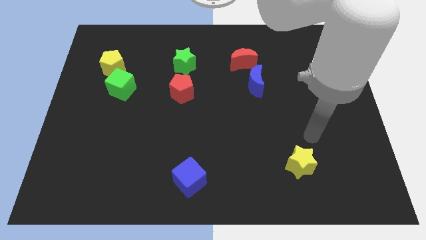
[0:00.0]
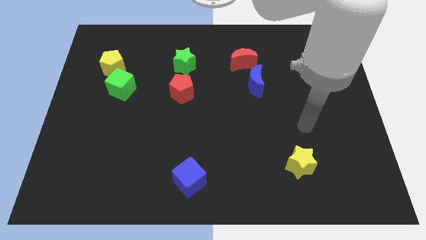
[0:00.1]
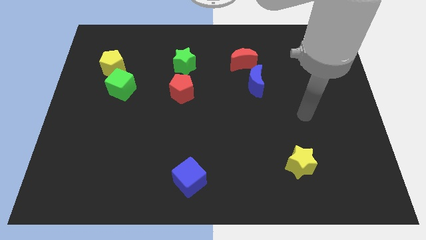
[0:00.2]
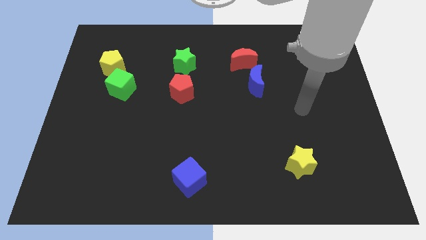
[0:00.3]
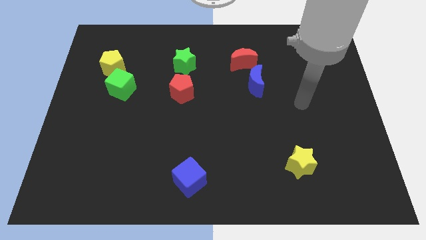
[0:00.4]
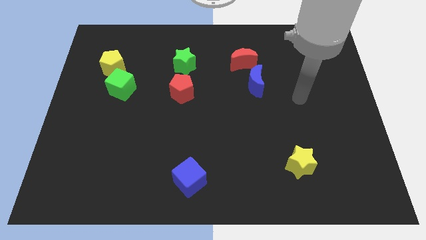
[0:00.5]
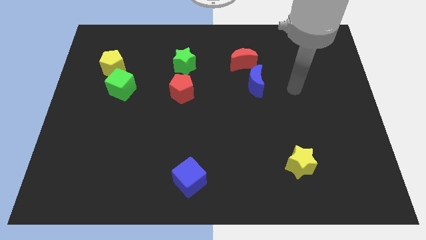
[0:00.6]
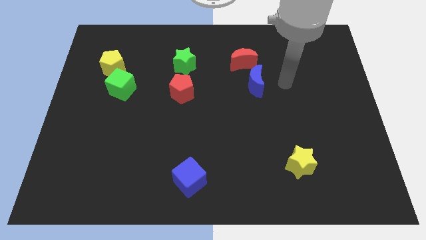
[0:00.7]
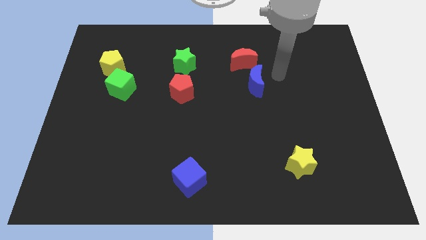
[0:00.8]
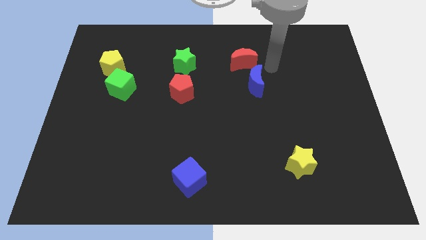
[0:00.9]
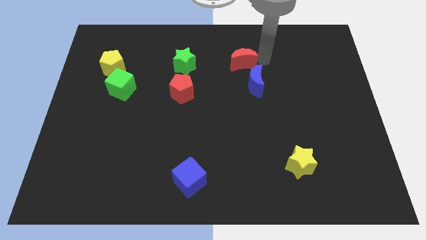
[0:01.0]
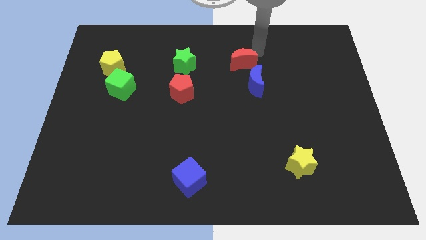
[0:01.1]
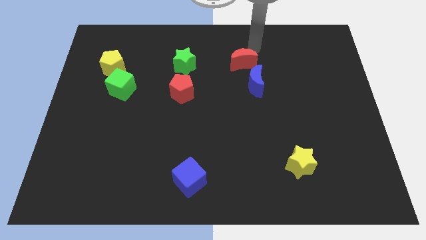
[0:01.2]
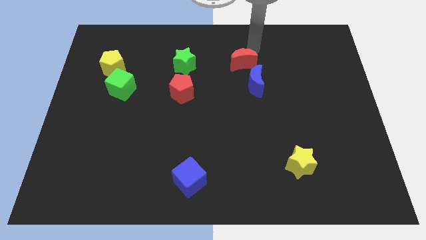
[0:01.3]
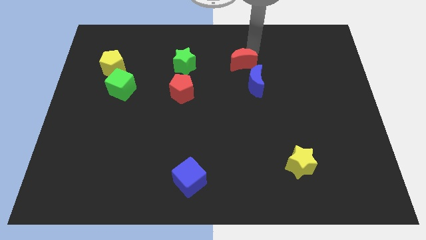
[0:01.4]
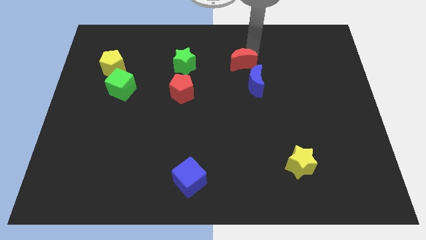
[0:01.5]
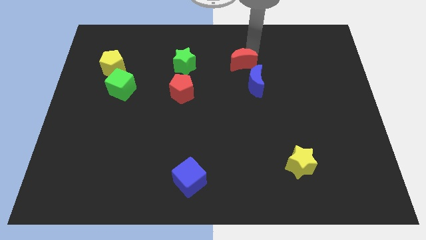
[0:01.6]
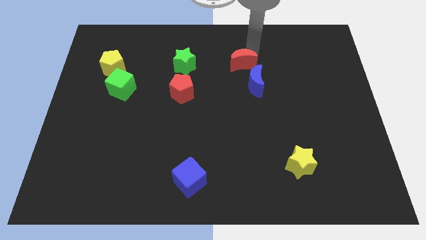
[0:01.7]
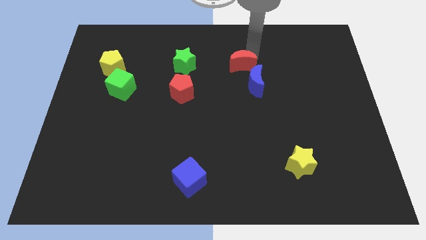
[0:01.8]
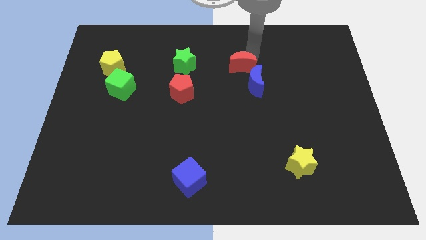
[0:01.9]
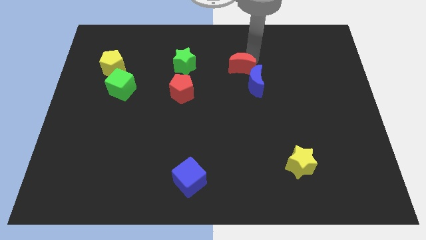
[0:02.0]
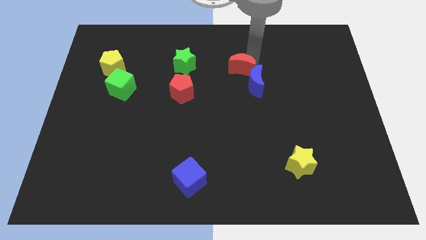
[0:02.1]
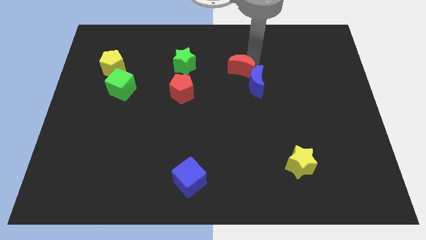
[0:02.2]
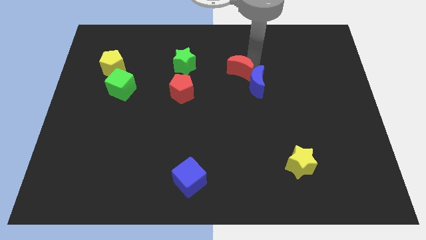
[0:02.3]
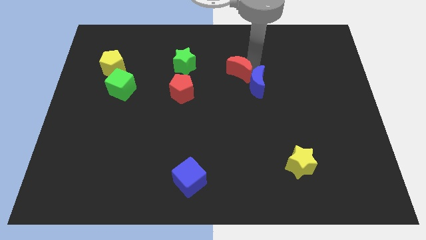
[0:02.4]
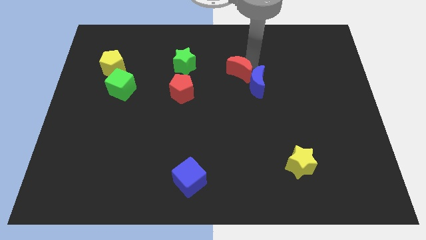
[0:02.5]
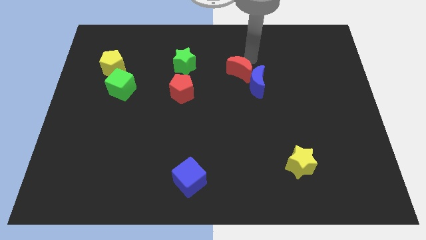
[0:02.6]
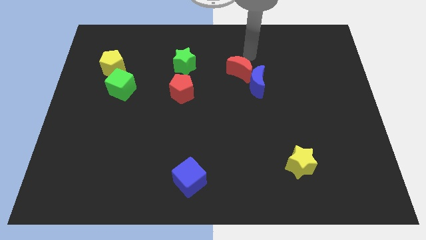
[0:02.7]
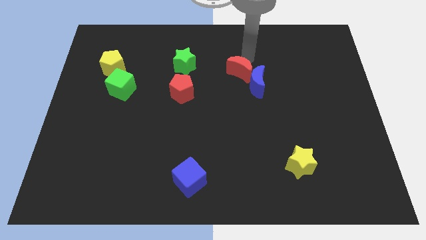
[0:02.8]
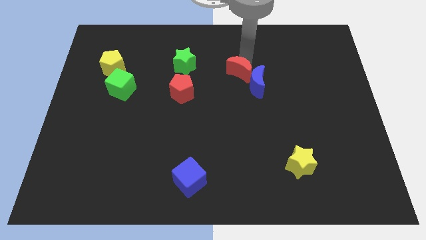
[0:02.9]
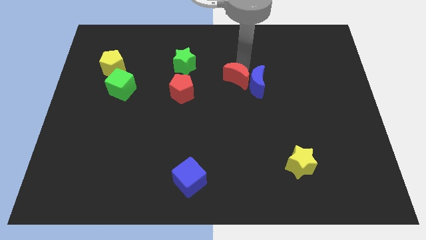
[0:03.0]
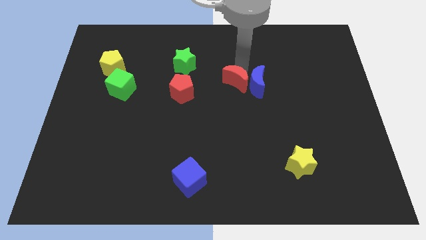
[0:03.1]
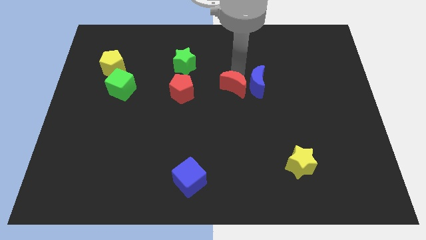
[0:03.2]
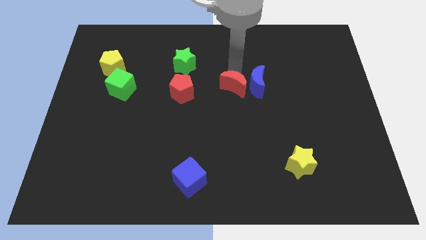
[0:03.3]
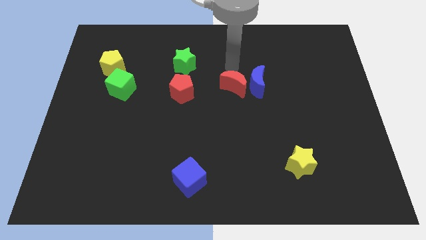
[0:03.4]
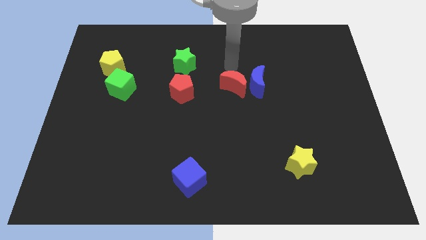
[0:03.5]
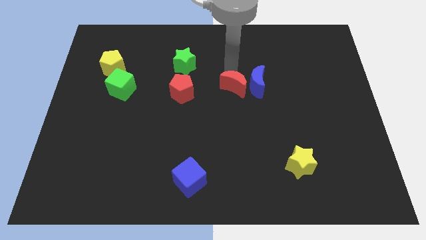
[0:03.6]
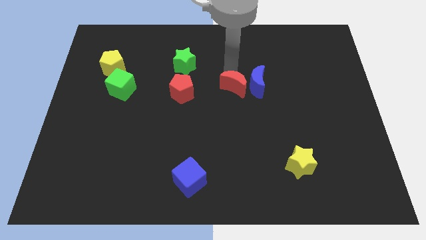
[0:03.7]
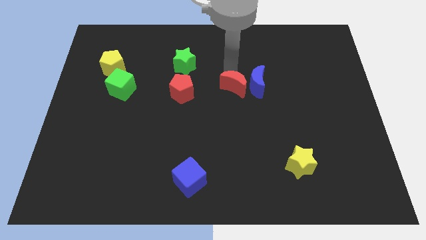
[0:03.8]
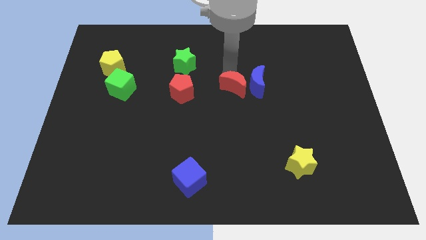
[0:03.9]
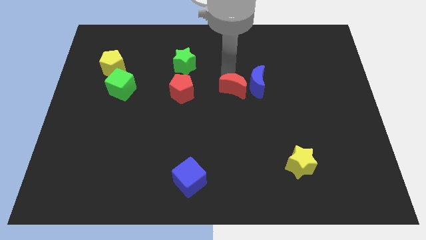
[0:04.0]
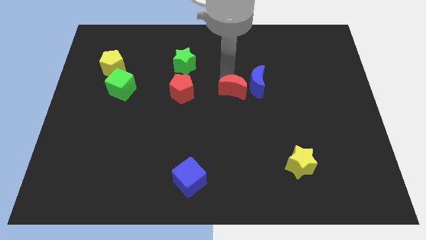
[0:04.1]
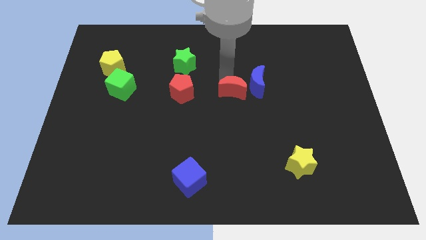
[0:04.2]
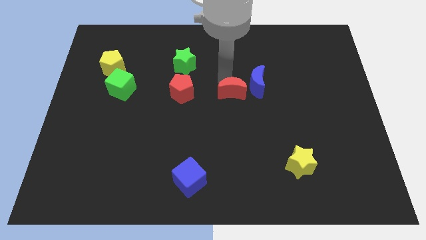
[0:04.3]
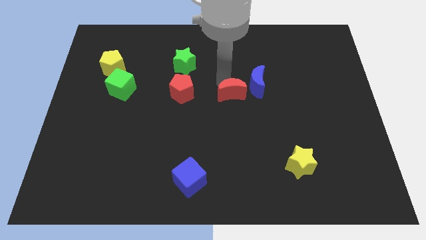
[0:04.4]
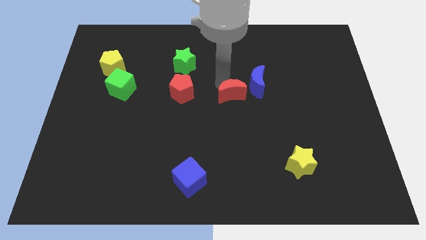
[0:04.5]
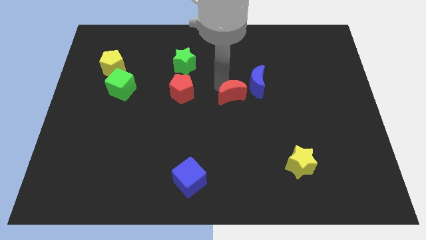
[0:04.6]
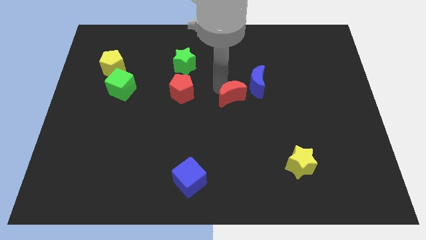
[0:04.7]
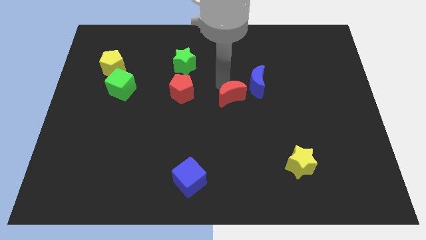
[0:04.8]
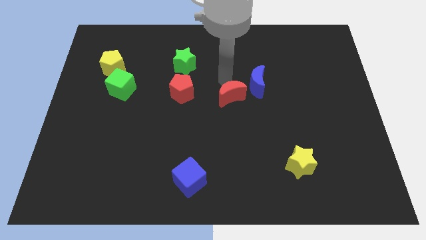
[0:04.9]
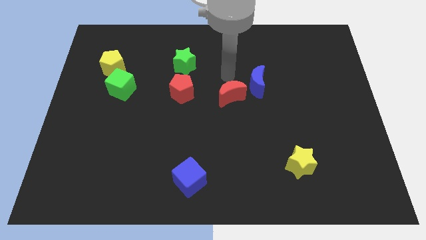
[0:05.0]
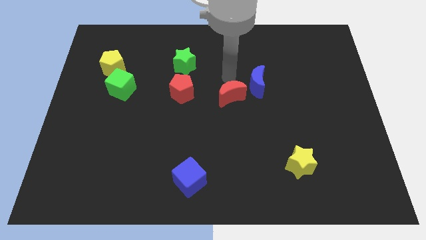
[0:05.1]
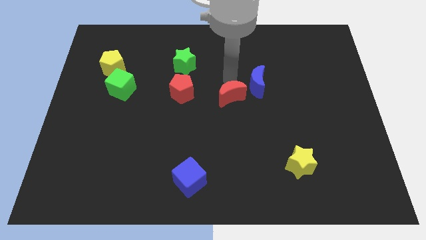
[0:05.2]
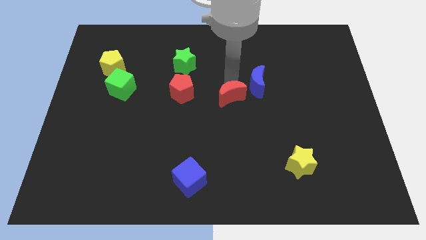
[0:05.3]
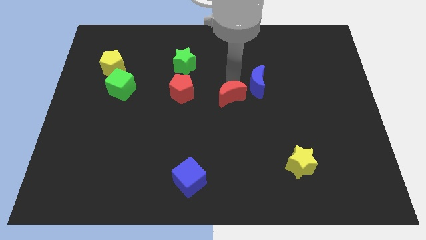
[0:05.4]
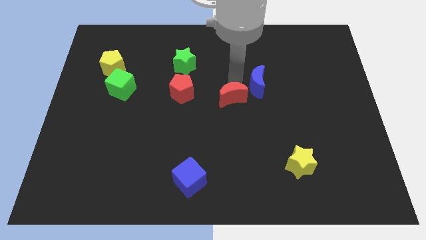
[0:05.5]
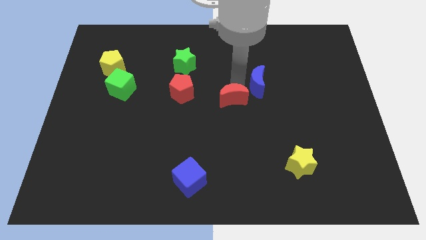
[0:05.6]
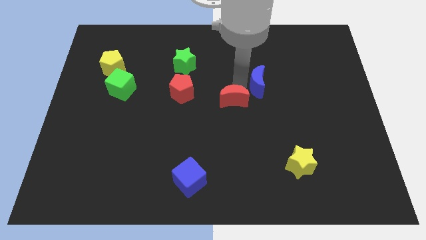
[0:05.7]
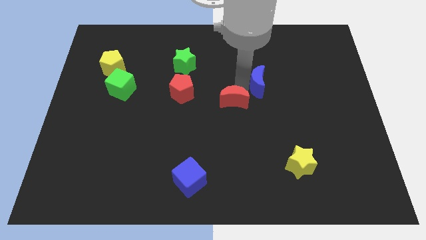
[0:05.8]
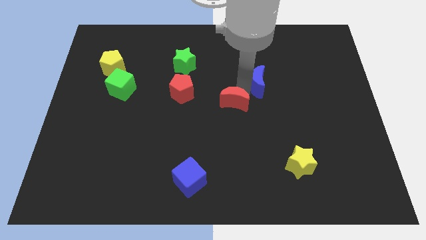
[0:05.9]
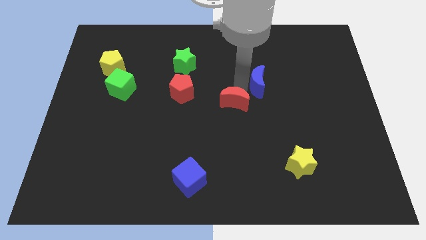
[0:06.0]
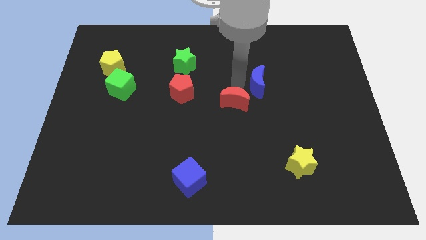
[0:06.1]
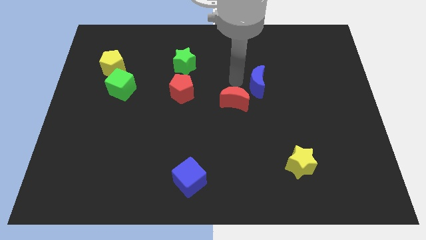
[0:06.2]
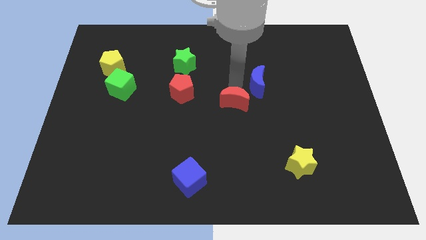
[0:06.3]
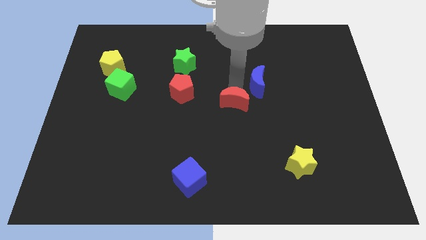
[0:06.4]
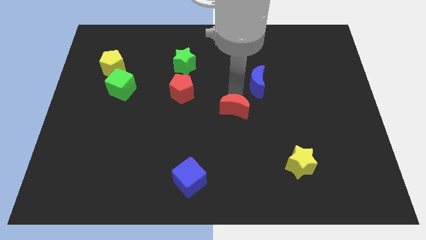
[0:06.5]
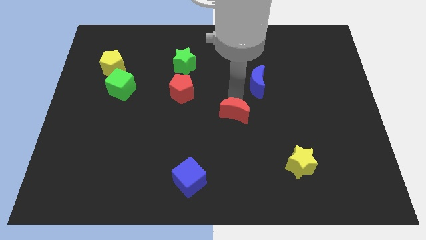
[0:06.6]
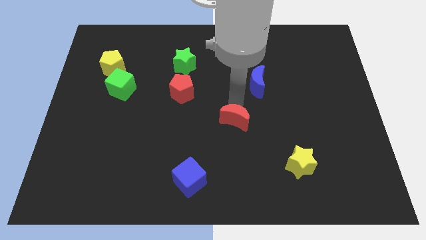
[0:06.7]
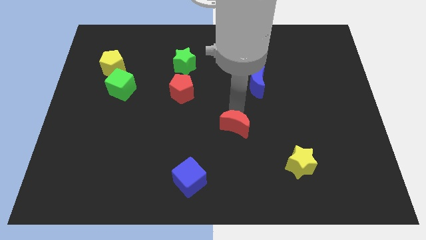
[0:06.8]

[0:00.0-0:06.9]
slide the red moon down

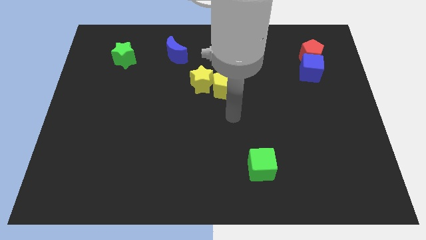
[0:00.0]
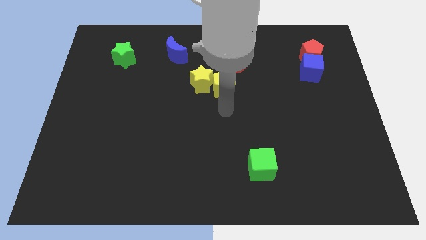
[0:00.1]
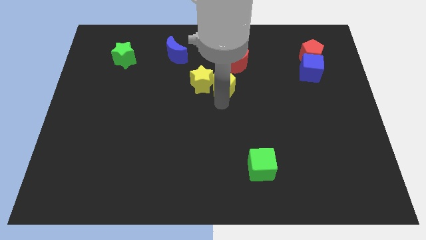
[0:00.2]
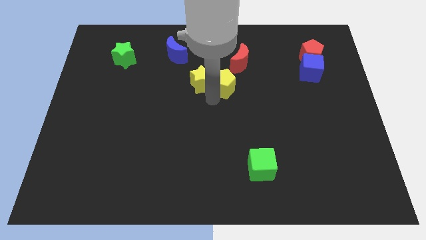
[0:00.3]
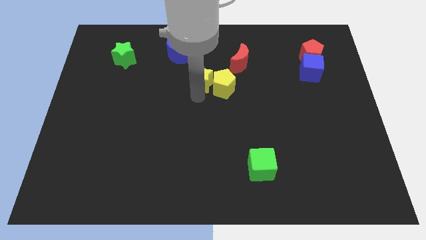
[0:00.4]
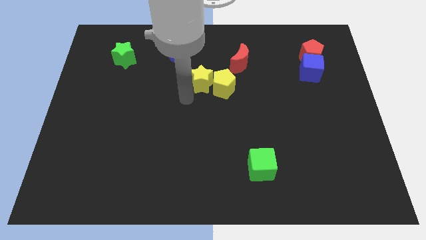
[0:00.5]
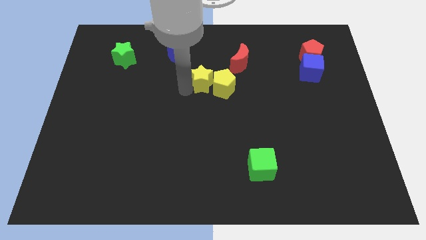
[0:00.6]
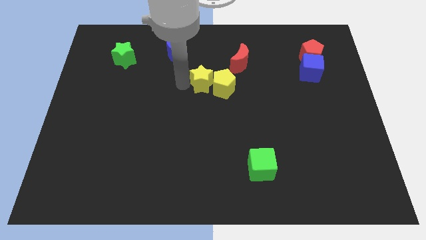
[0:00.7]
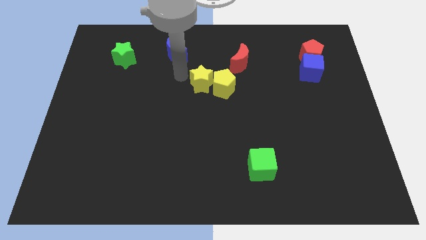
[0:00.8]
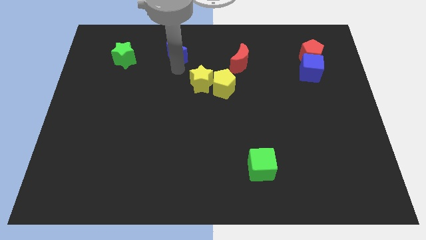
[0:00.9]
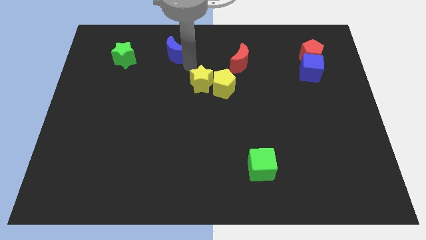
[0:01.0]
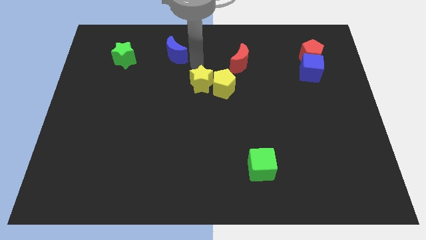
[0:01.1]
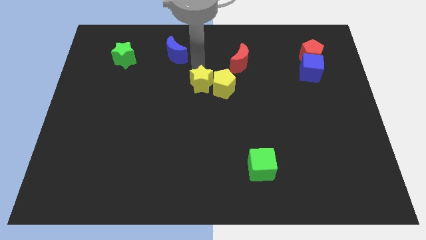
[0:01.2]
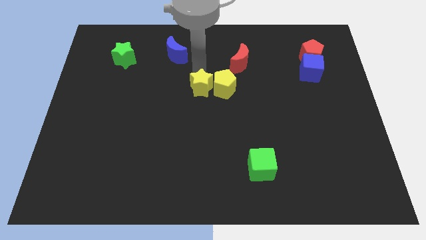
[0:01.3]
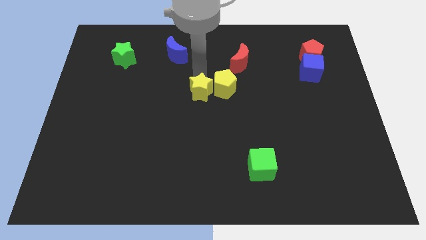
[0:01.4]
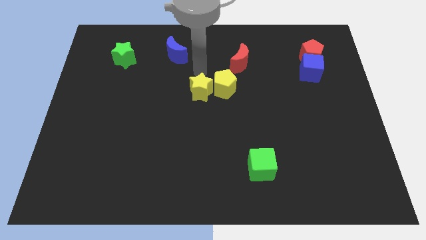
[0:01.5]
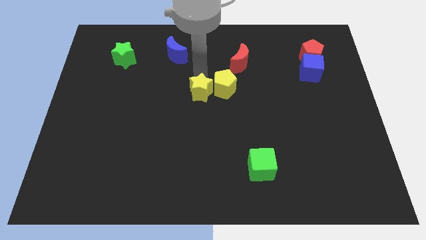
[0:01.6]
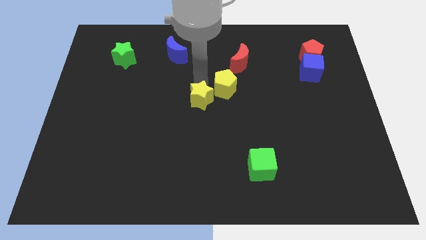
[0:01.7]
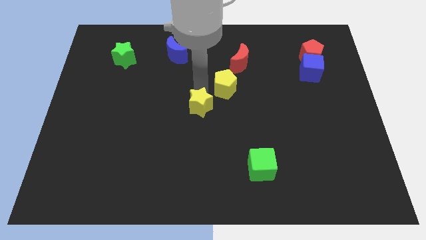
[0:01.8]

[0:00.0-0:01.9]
slide the yellow star a bit downwards
